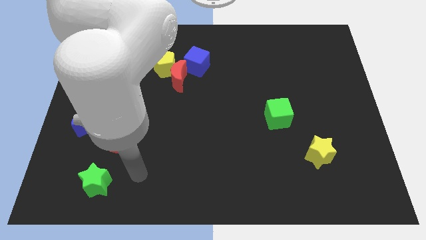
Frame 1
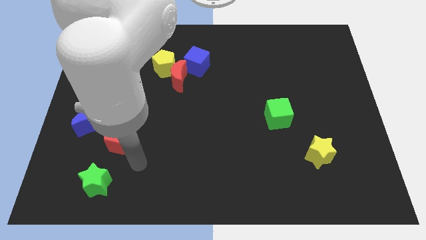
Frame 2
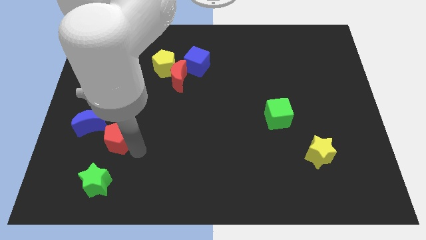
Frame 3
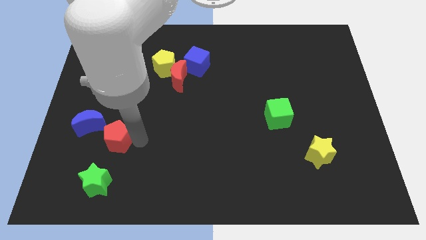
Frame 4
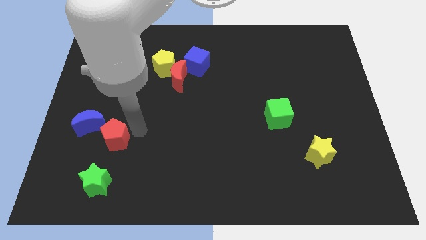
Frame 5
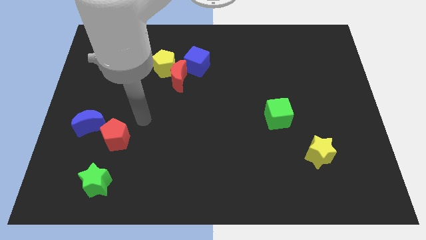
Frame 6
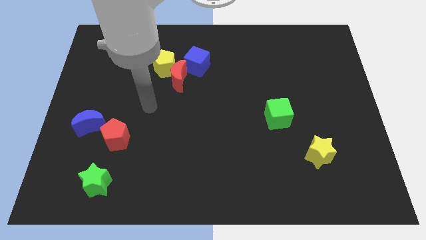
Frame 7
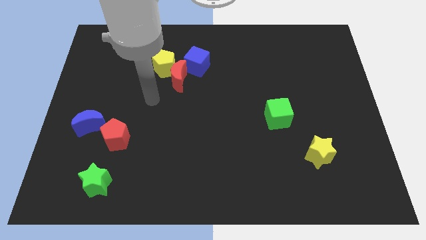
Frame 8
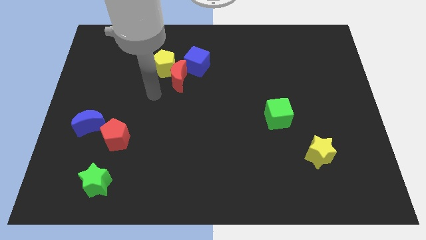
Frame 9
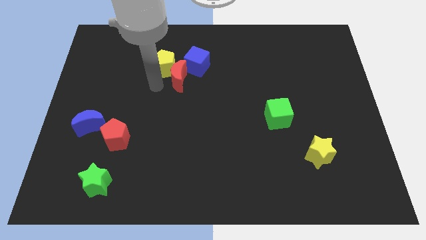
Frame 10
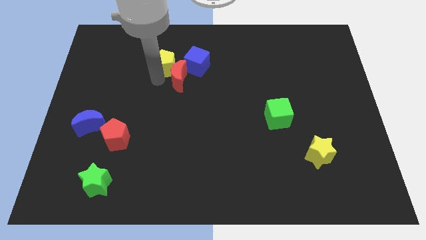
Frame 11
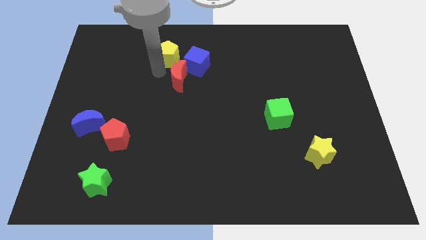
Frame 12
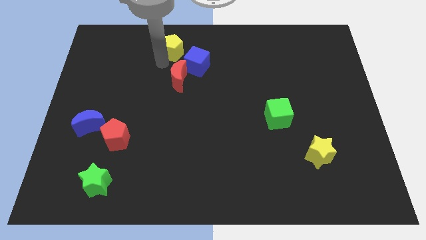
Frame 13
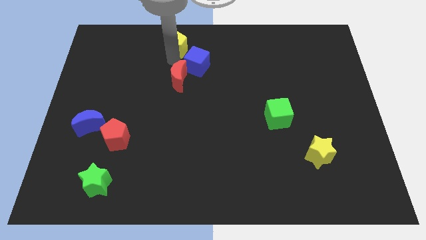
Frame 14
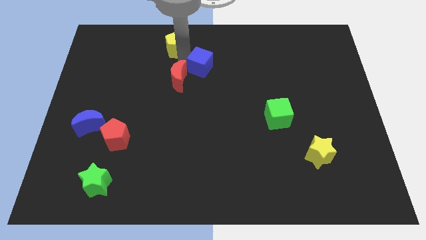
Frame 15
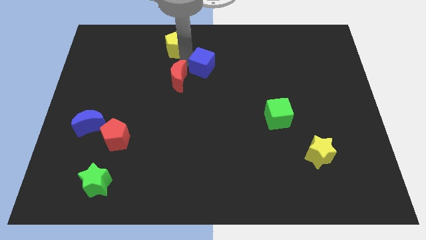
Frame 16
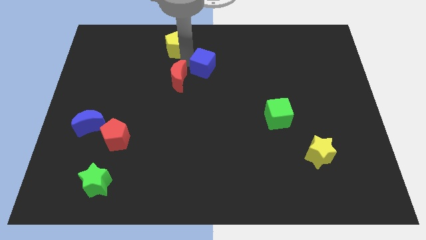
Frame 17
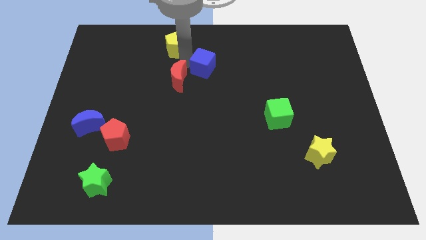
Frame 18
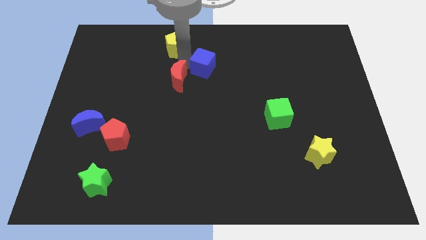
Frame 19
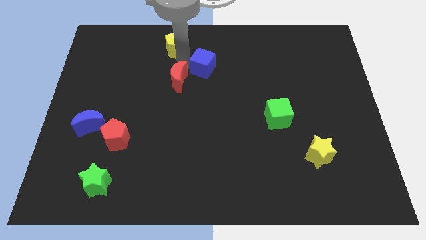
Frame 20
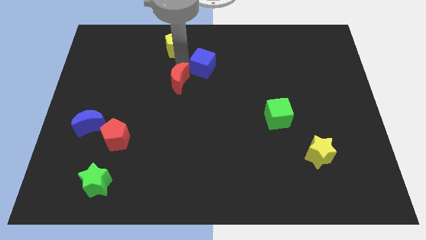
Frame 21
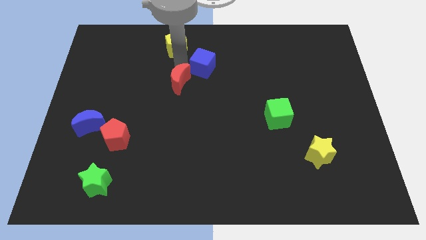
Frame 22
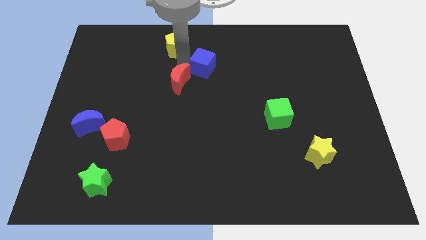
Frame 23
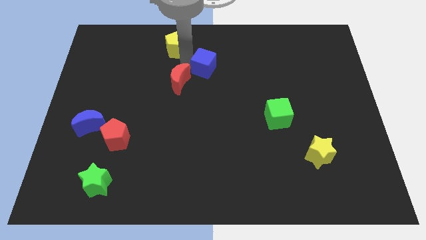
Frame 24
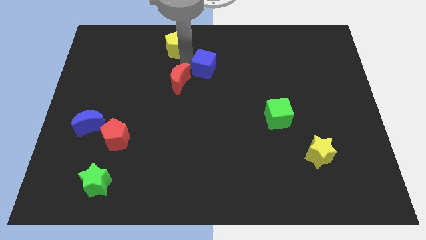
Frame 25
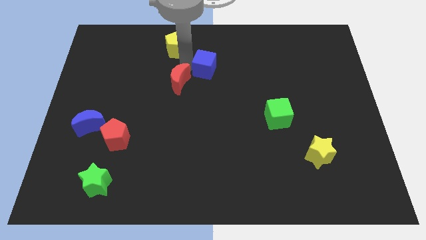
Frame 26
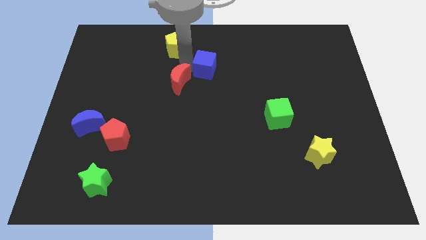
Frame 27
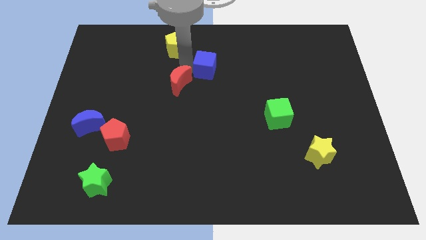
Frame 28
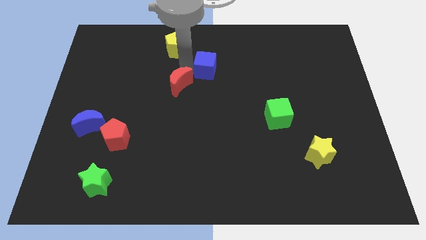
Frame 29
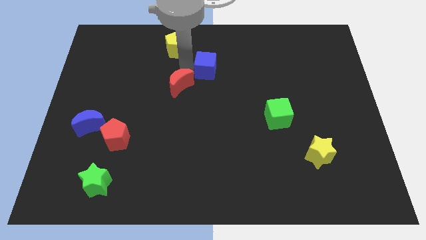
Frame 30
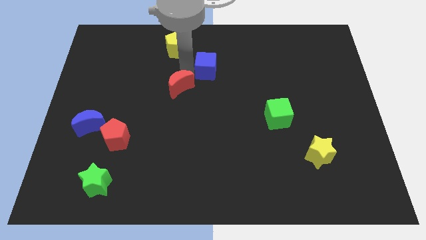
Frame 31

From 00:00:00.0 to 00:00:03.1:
move the red moon away from the yellow pentagon and blue cube

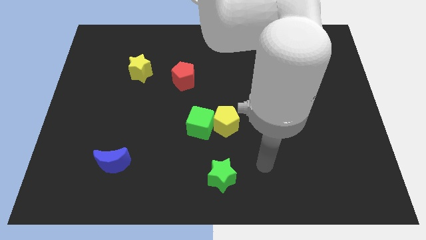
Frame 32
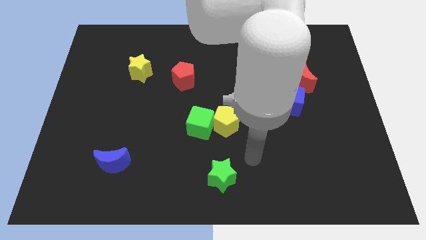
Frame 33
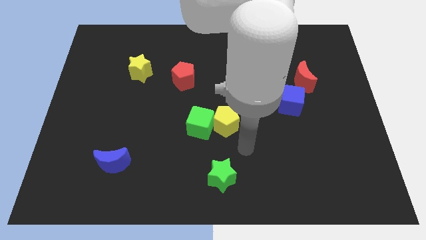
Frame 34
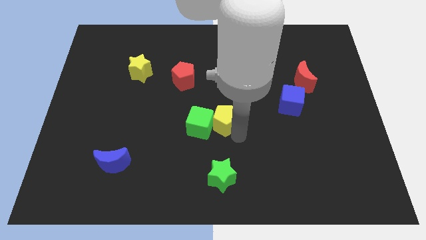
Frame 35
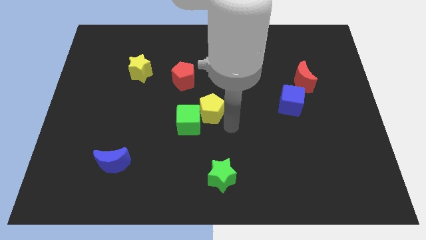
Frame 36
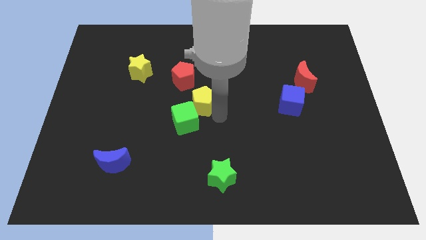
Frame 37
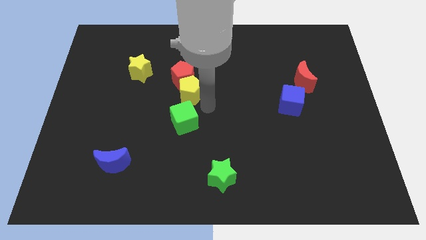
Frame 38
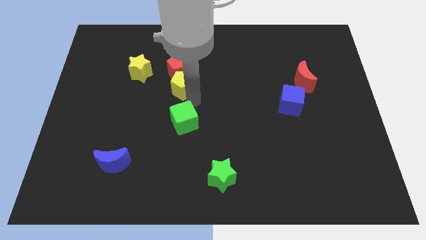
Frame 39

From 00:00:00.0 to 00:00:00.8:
move the green cube away from the yellow pentagon

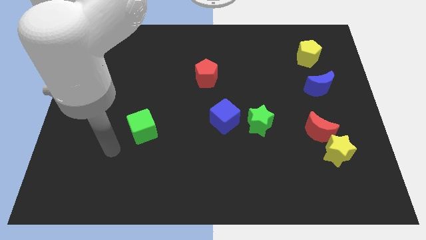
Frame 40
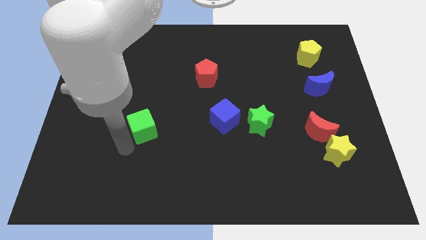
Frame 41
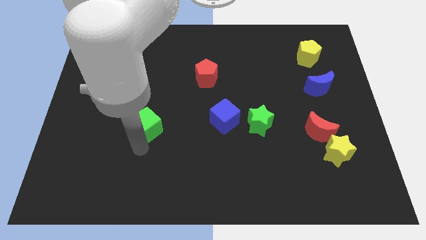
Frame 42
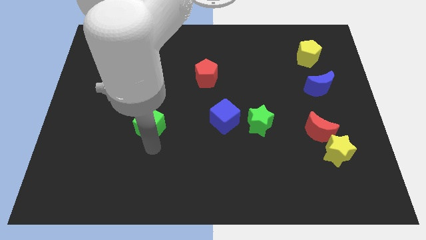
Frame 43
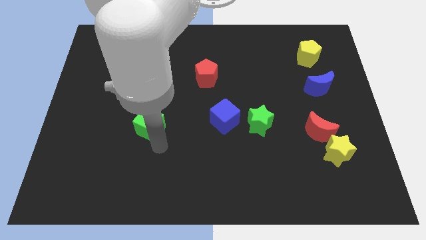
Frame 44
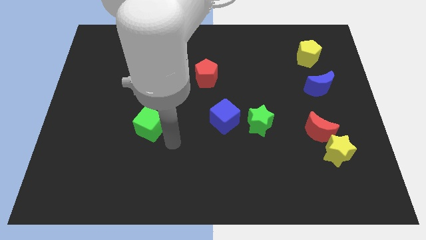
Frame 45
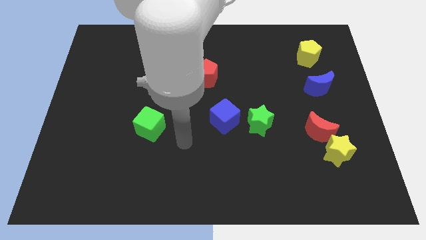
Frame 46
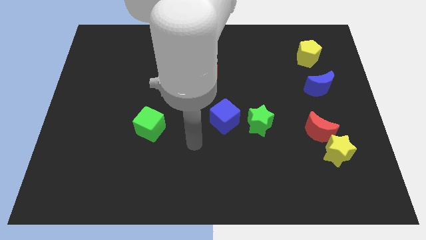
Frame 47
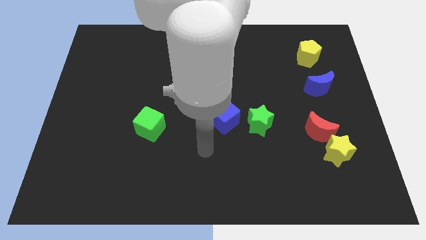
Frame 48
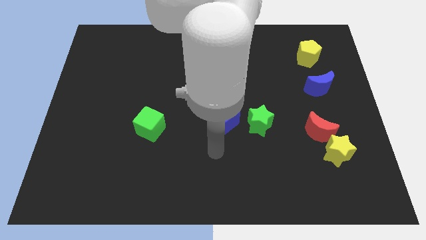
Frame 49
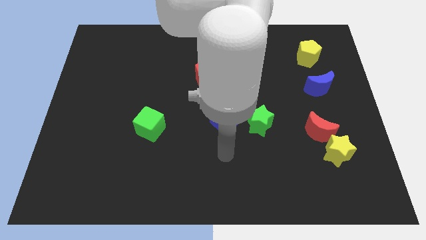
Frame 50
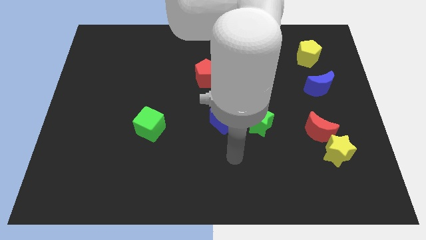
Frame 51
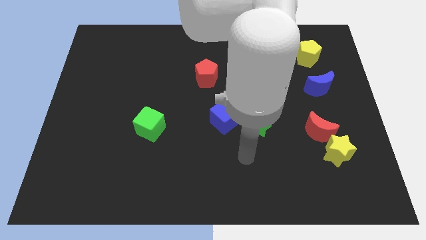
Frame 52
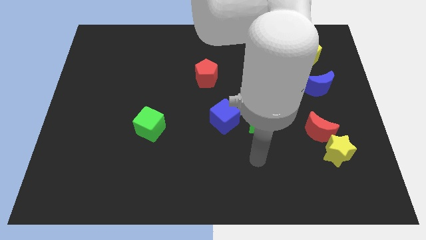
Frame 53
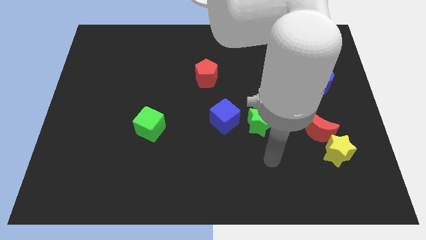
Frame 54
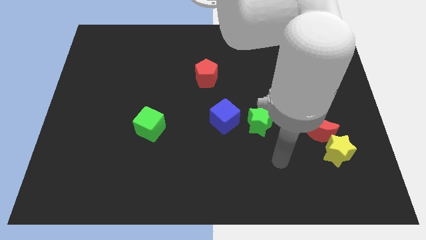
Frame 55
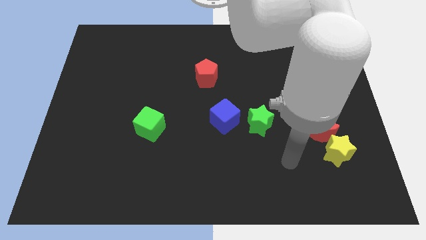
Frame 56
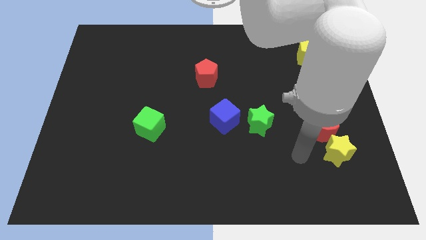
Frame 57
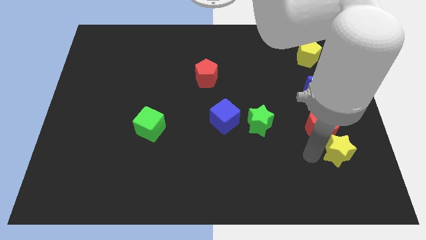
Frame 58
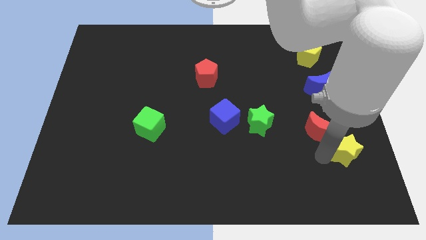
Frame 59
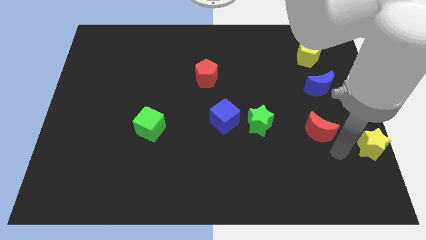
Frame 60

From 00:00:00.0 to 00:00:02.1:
move the red moon away from the yellow star

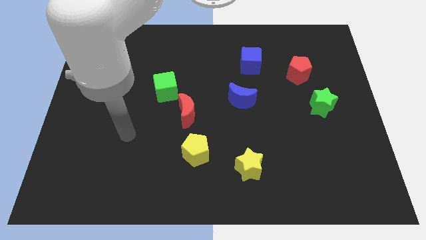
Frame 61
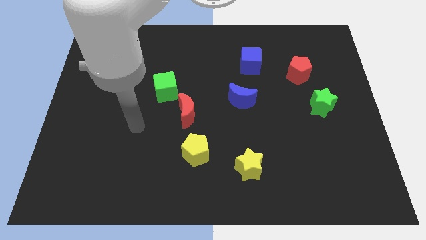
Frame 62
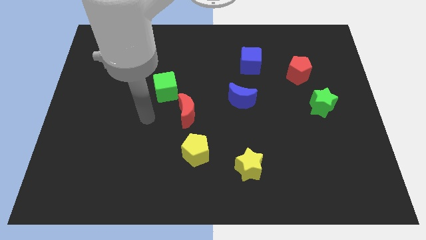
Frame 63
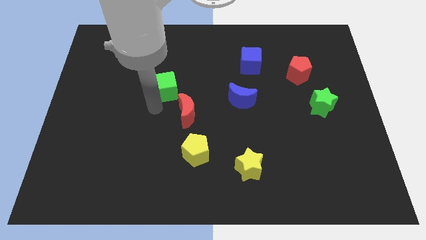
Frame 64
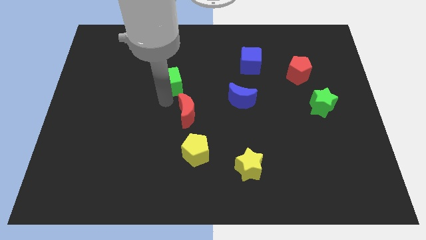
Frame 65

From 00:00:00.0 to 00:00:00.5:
pull the red moon apart from the green cube

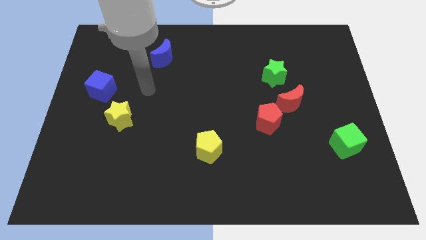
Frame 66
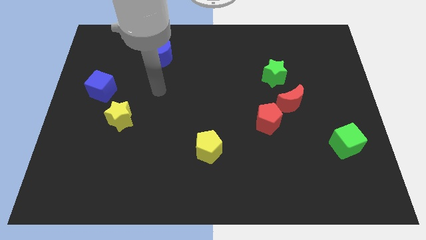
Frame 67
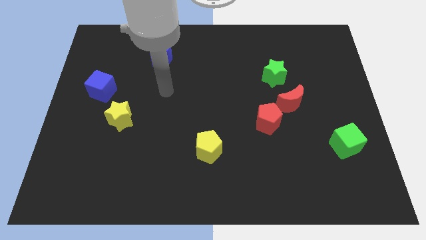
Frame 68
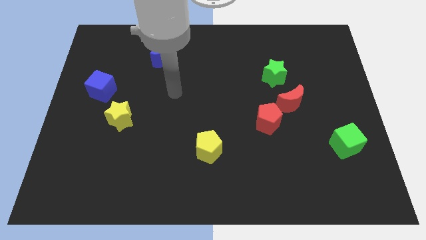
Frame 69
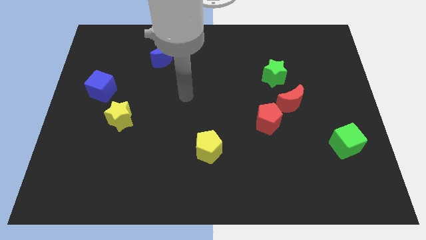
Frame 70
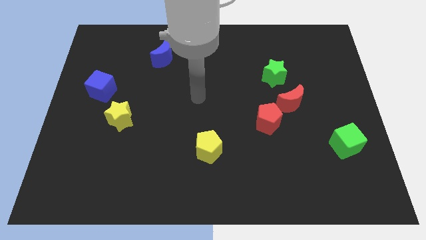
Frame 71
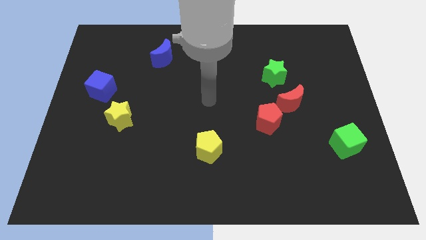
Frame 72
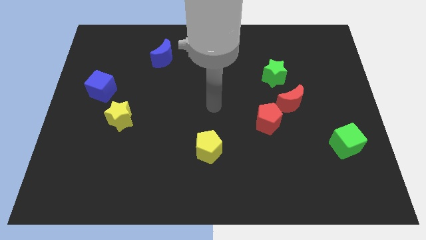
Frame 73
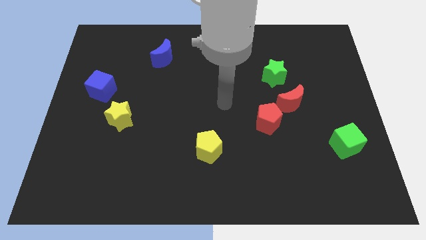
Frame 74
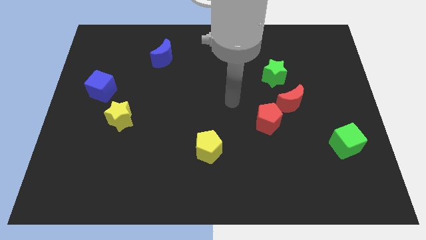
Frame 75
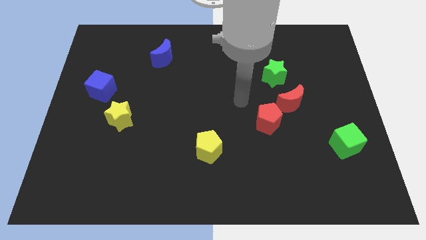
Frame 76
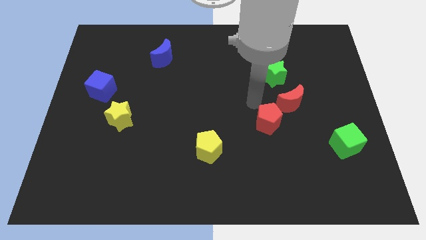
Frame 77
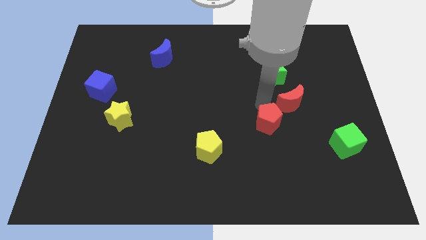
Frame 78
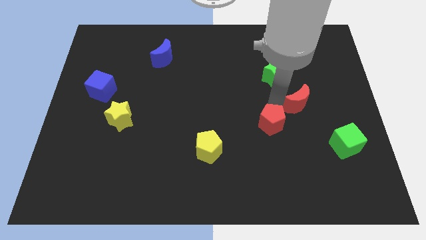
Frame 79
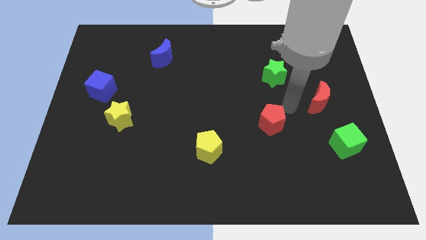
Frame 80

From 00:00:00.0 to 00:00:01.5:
move the red pentagon away from the red moon

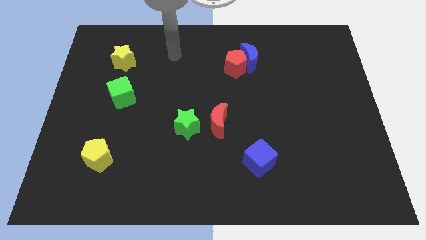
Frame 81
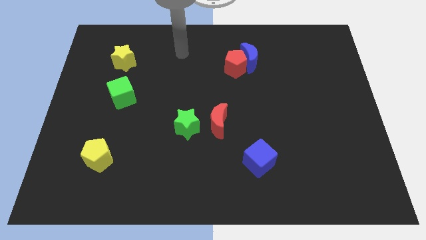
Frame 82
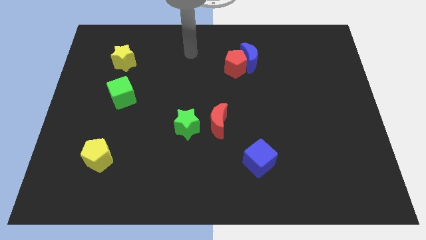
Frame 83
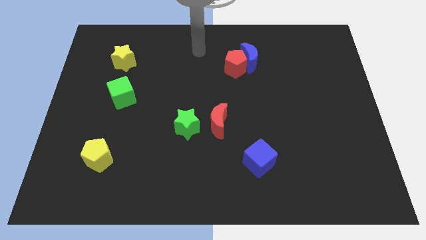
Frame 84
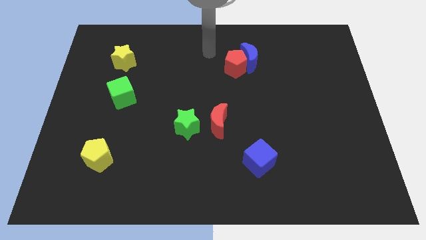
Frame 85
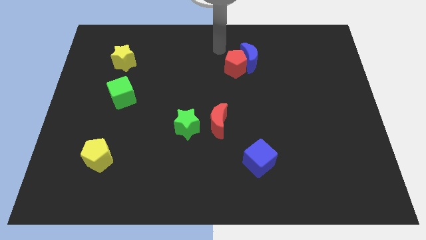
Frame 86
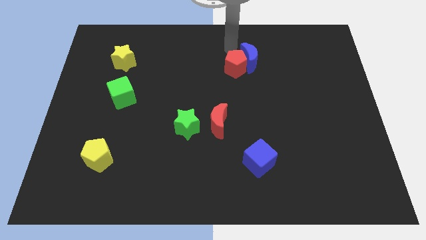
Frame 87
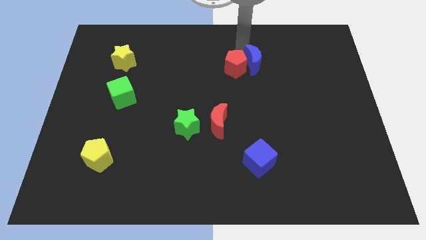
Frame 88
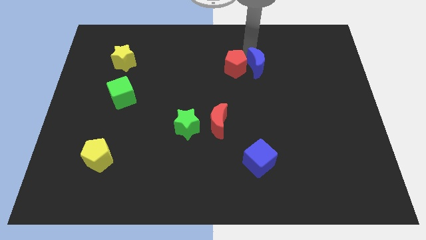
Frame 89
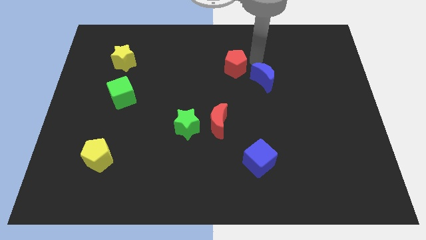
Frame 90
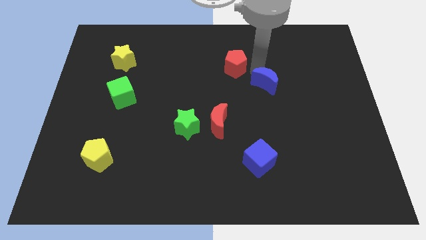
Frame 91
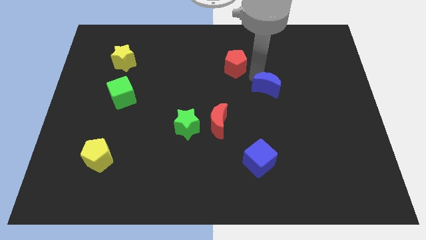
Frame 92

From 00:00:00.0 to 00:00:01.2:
move the red pentagon away from the blue moon

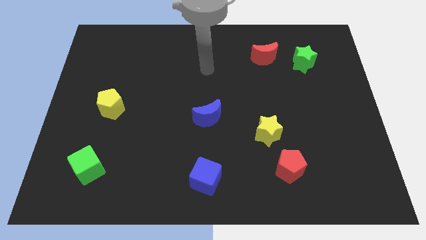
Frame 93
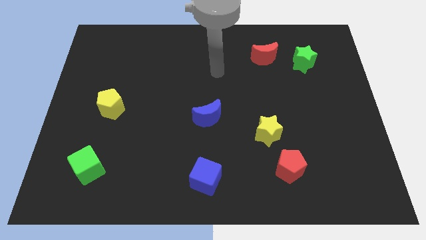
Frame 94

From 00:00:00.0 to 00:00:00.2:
separate the red moon from the green star
